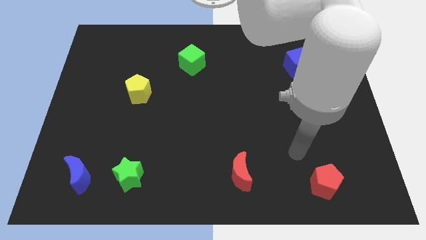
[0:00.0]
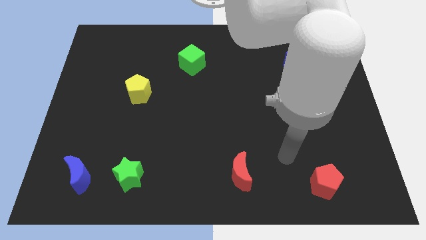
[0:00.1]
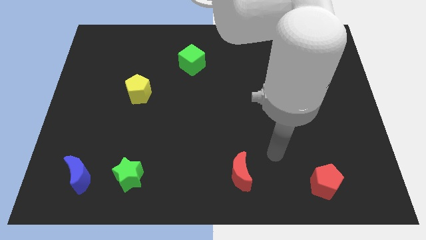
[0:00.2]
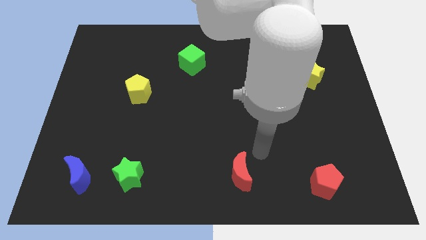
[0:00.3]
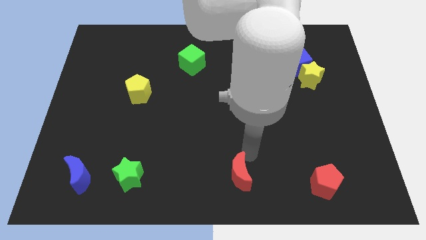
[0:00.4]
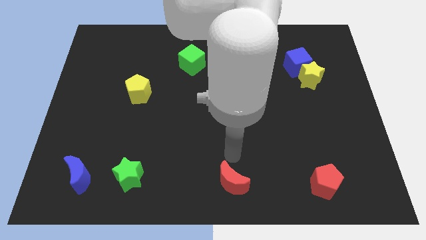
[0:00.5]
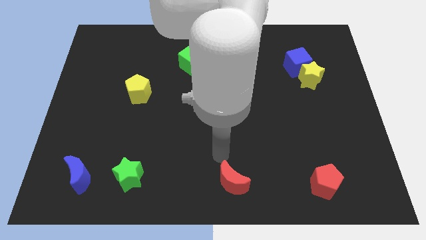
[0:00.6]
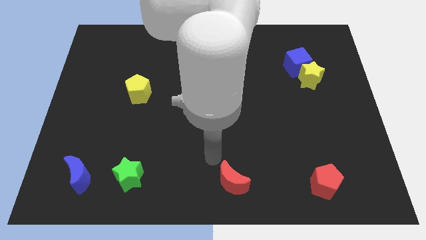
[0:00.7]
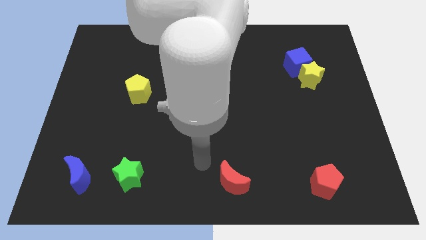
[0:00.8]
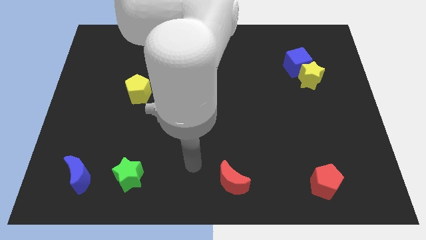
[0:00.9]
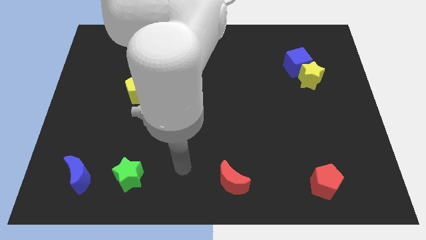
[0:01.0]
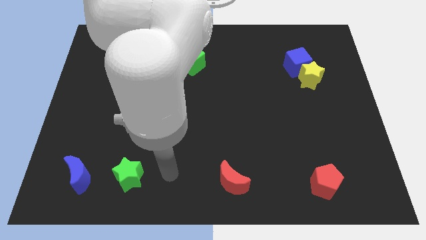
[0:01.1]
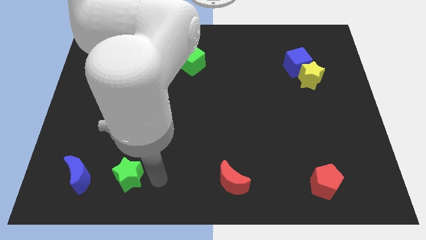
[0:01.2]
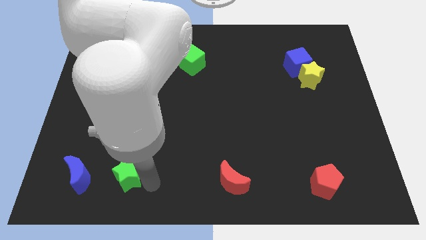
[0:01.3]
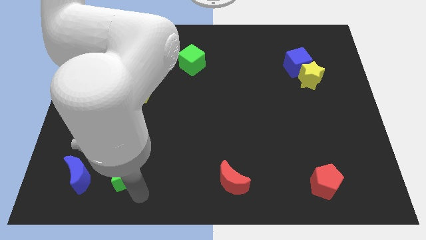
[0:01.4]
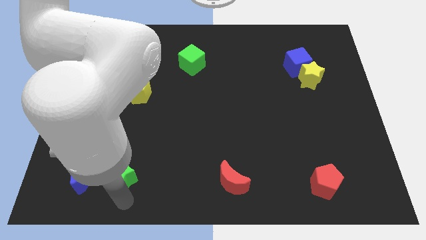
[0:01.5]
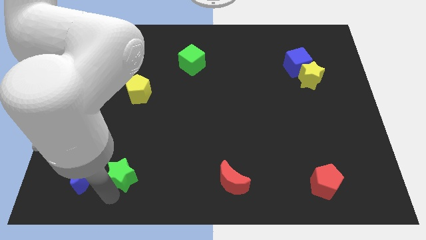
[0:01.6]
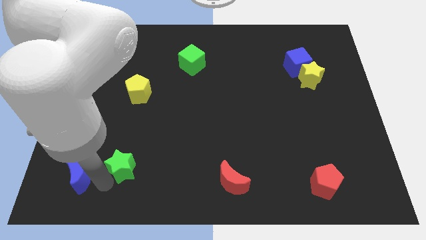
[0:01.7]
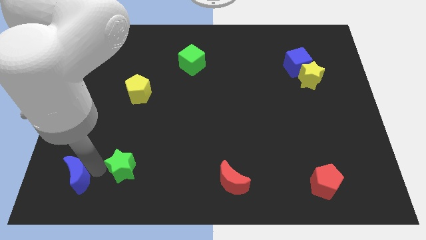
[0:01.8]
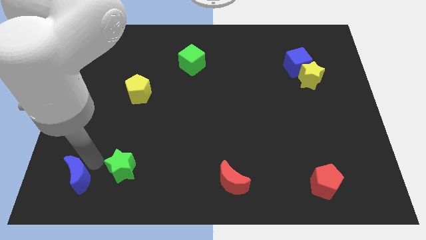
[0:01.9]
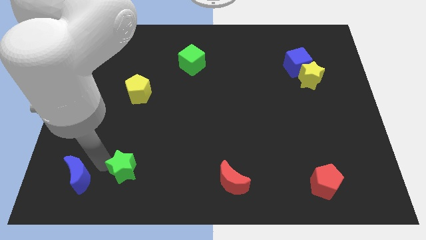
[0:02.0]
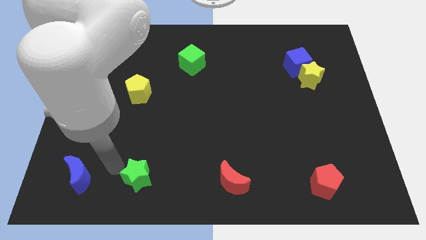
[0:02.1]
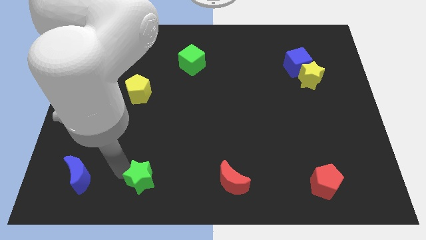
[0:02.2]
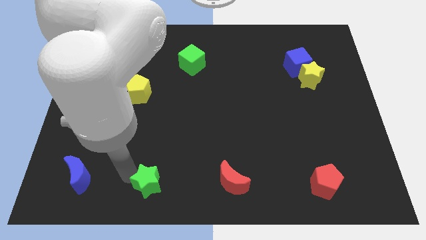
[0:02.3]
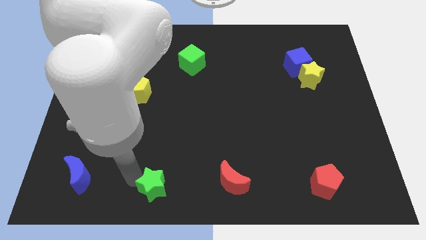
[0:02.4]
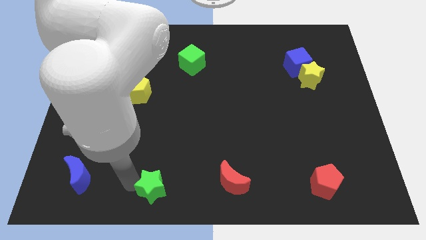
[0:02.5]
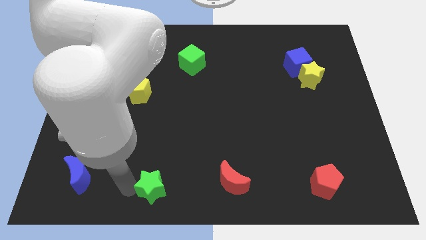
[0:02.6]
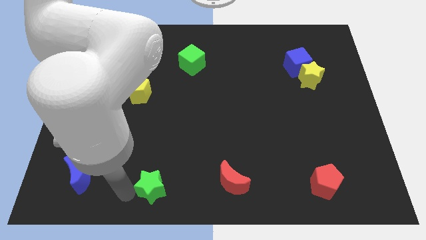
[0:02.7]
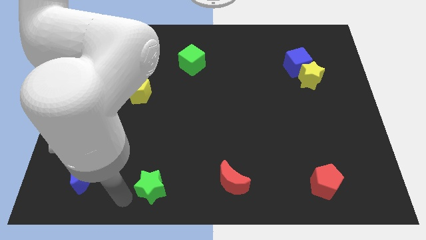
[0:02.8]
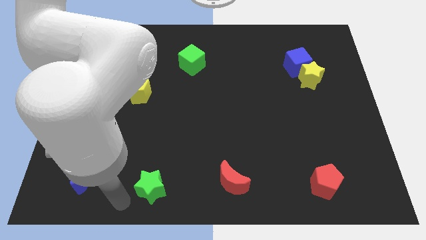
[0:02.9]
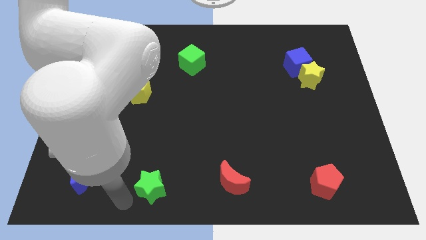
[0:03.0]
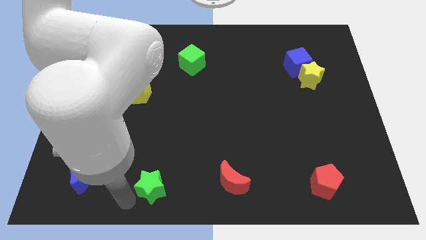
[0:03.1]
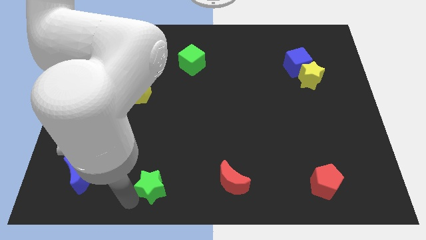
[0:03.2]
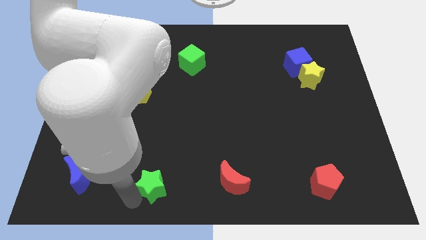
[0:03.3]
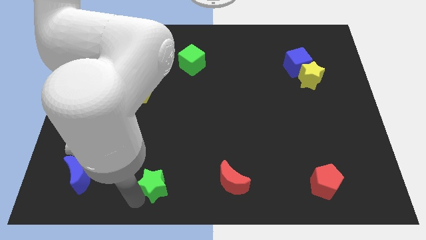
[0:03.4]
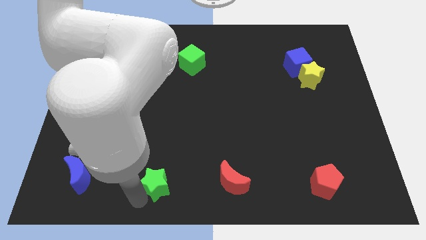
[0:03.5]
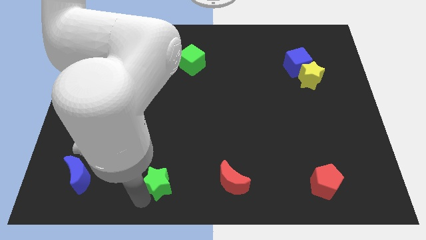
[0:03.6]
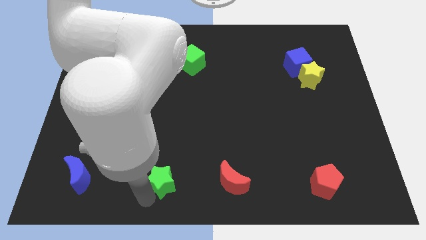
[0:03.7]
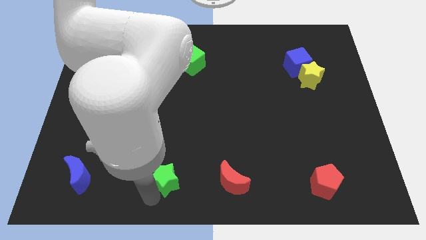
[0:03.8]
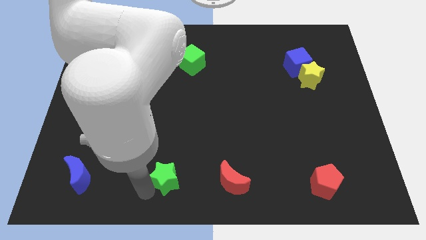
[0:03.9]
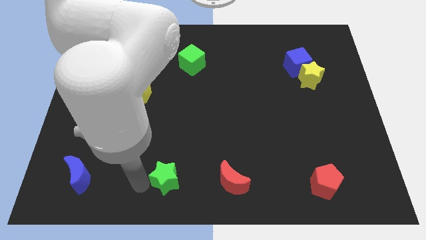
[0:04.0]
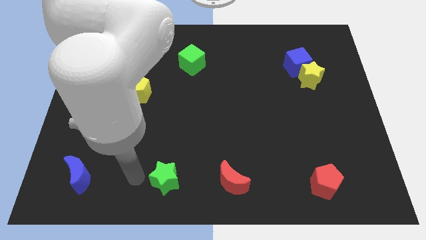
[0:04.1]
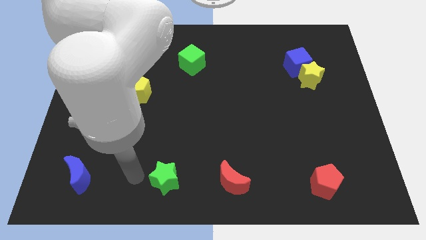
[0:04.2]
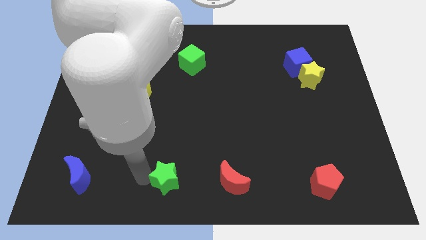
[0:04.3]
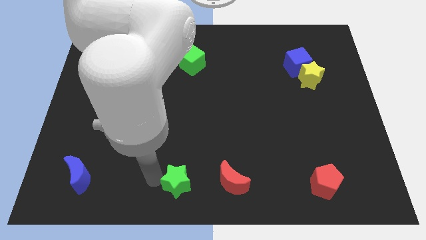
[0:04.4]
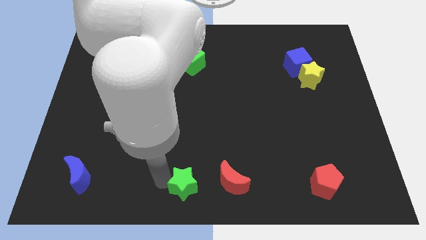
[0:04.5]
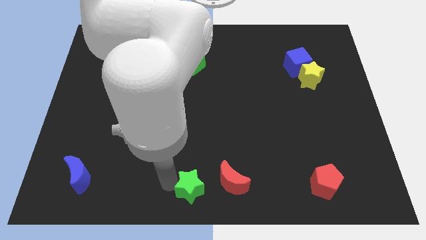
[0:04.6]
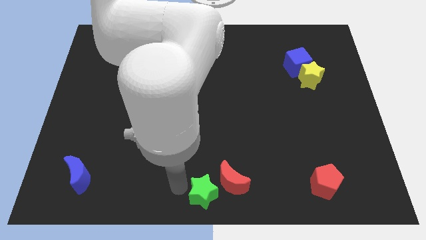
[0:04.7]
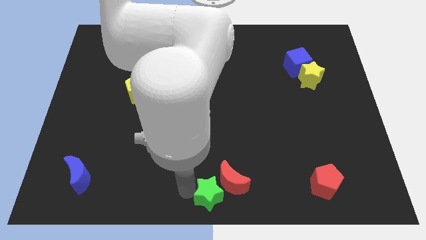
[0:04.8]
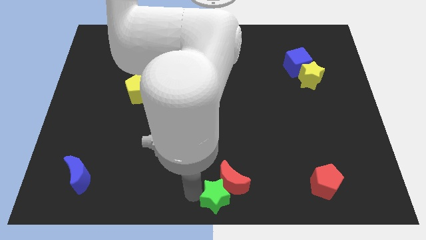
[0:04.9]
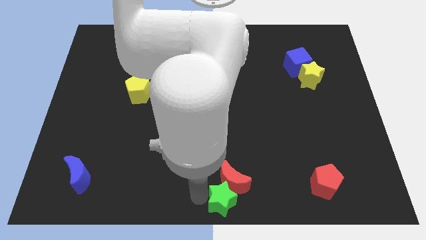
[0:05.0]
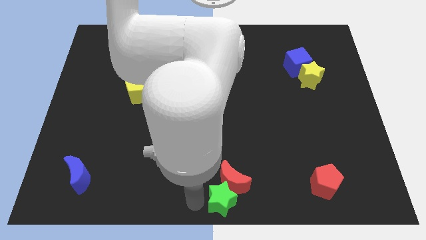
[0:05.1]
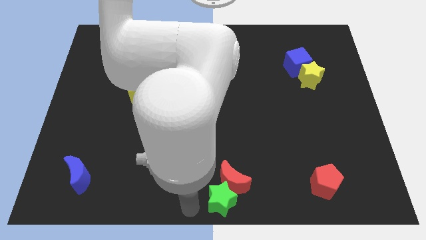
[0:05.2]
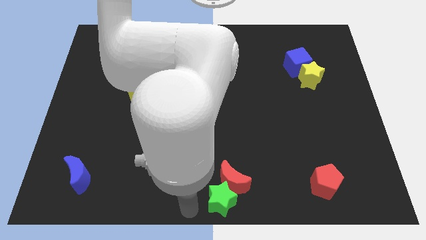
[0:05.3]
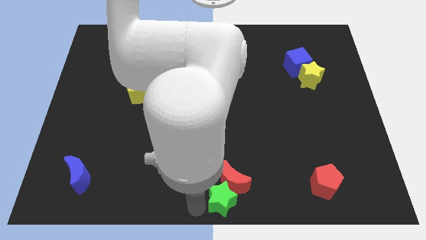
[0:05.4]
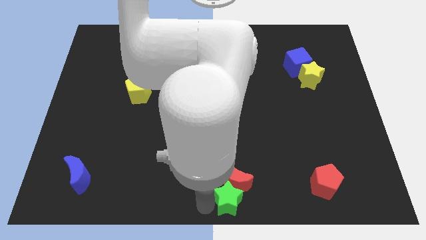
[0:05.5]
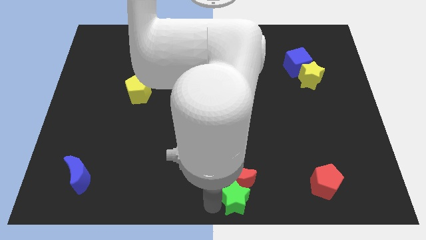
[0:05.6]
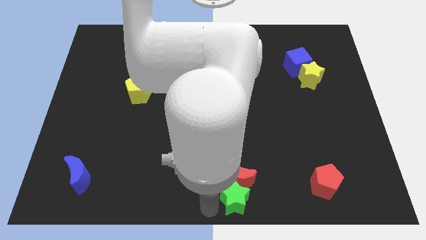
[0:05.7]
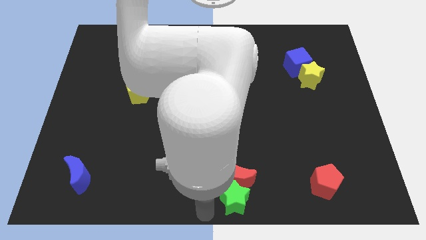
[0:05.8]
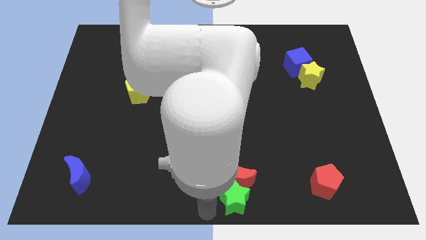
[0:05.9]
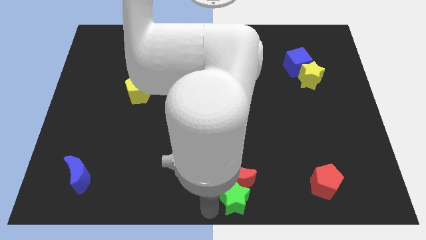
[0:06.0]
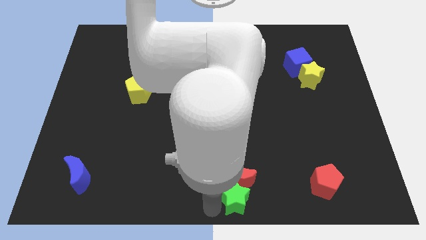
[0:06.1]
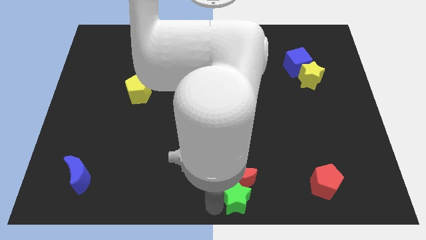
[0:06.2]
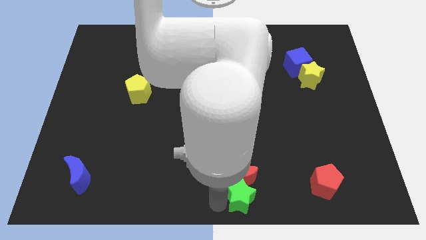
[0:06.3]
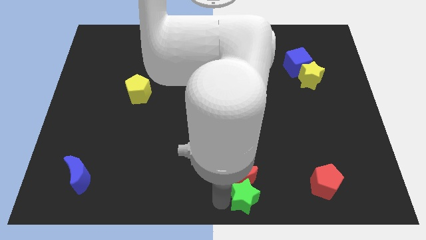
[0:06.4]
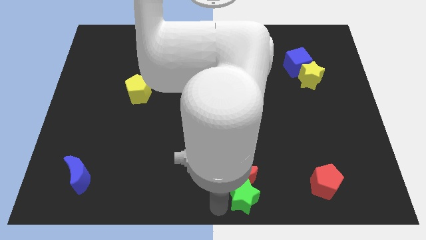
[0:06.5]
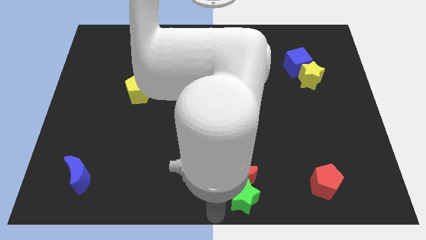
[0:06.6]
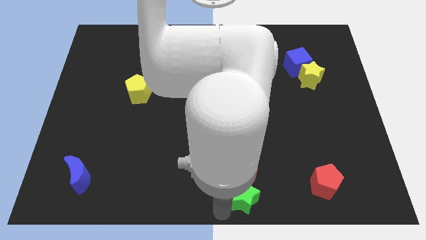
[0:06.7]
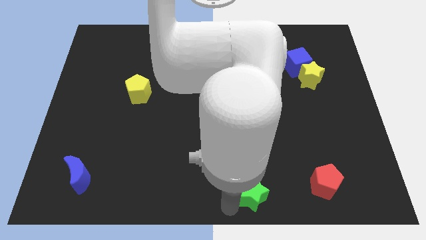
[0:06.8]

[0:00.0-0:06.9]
move the green star just left of the red pentagon
